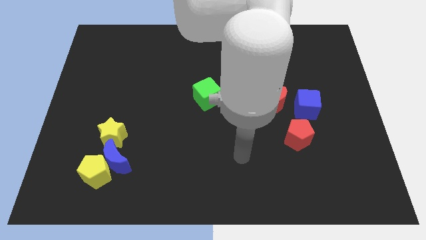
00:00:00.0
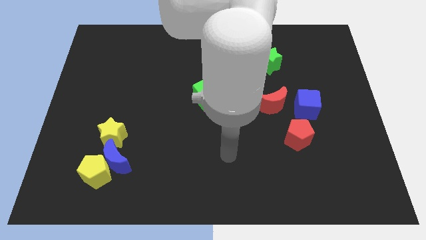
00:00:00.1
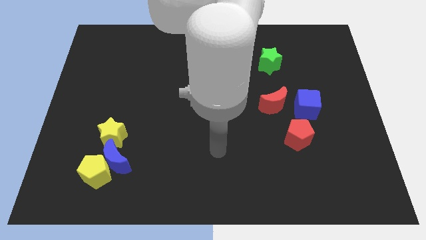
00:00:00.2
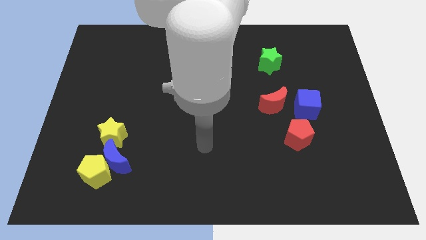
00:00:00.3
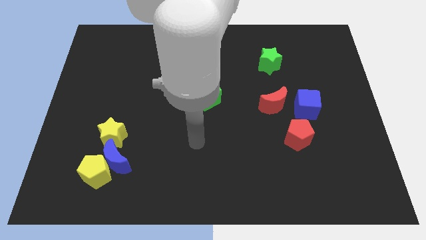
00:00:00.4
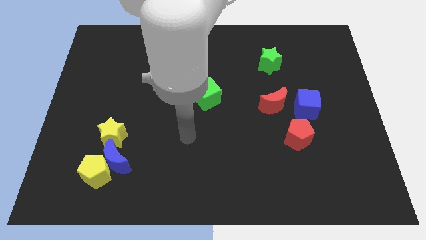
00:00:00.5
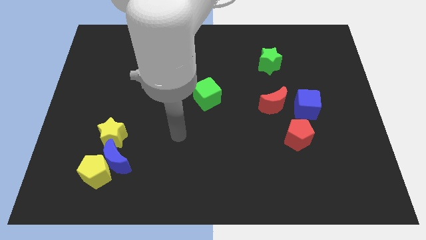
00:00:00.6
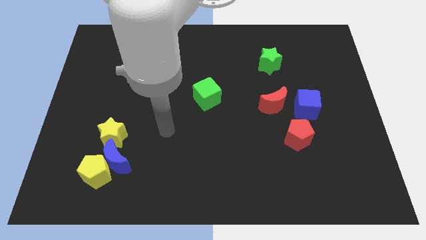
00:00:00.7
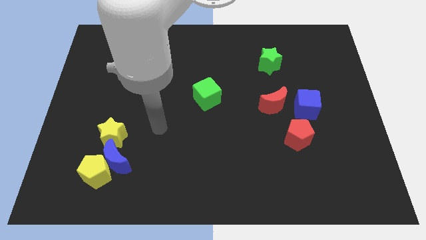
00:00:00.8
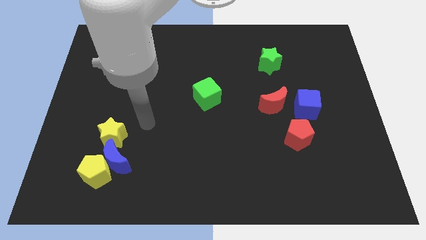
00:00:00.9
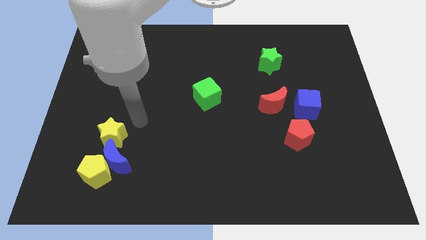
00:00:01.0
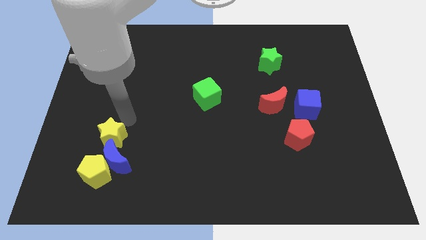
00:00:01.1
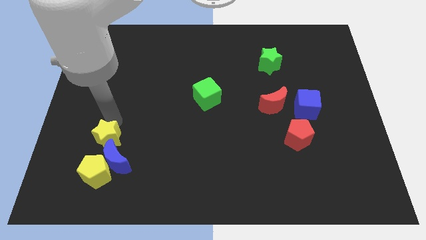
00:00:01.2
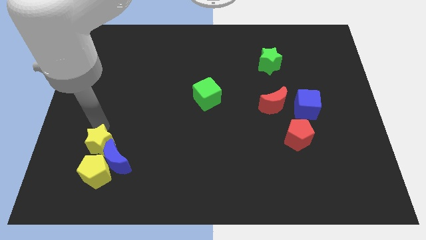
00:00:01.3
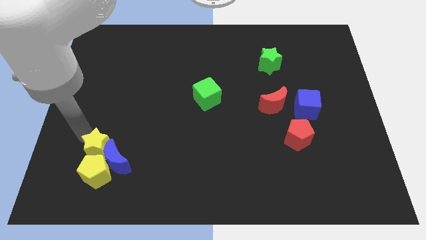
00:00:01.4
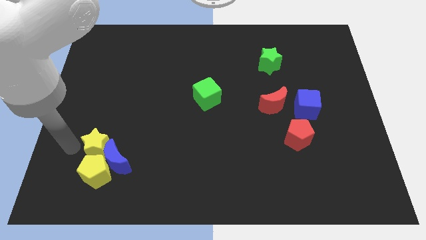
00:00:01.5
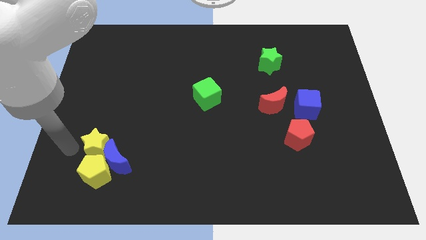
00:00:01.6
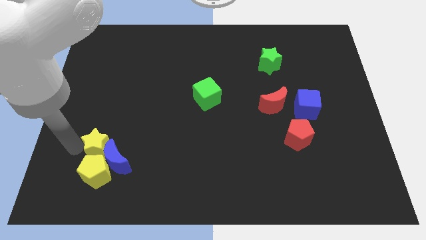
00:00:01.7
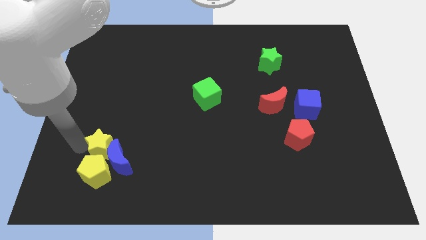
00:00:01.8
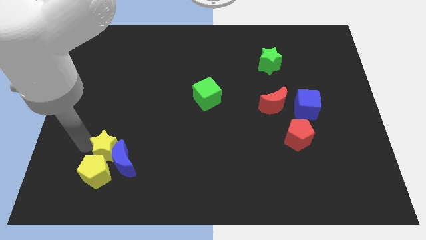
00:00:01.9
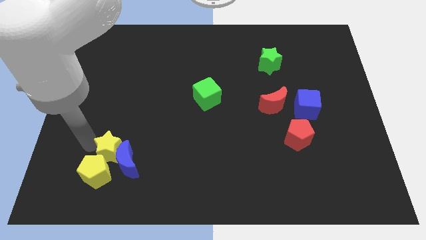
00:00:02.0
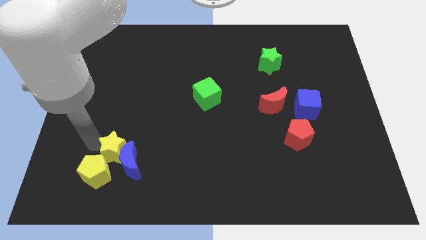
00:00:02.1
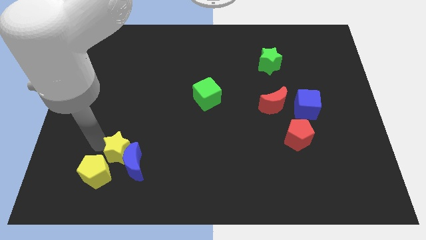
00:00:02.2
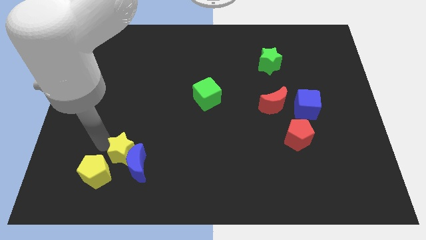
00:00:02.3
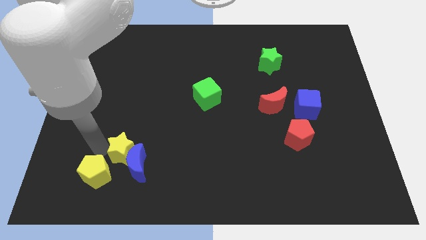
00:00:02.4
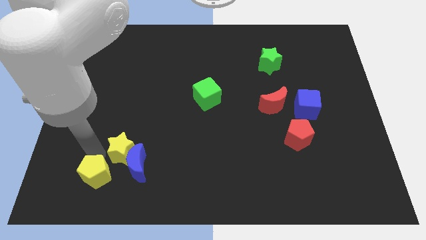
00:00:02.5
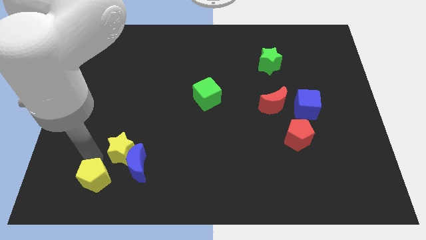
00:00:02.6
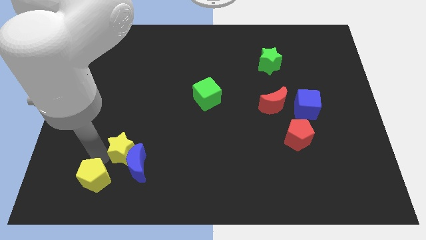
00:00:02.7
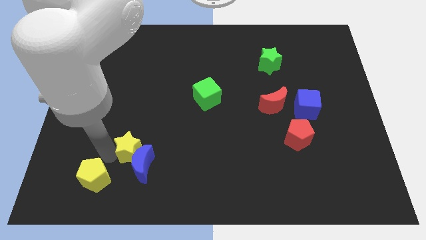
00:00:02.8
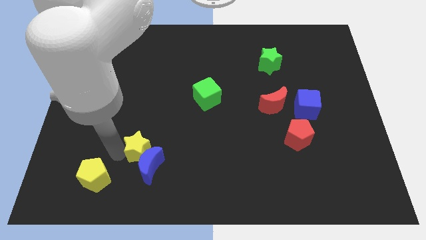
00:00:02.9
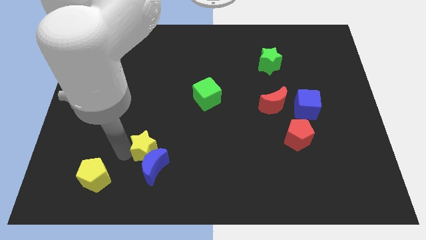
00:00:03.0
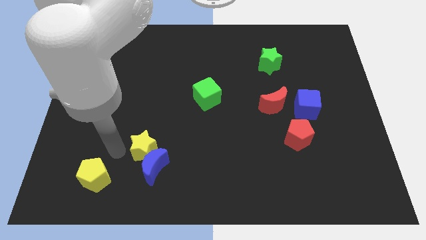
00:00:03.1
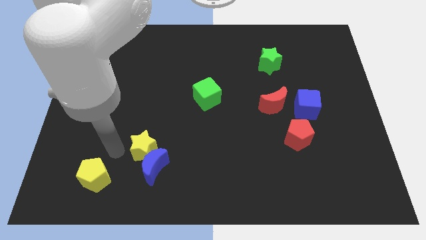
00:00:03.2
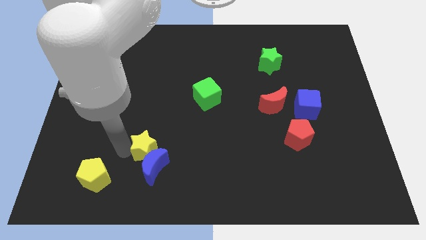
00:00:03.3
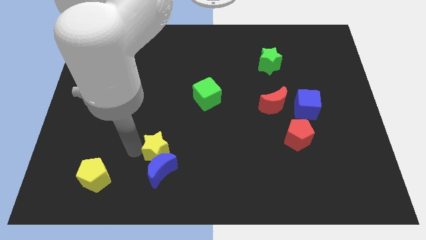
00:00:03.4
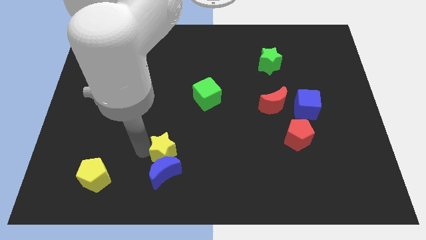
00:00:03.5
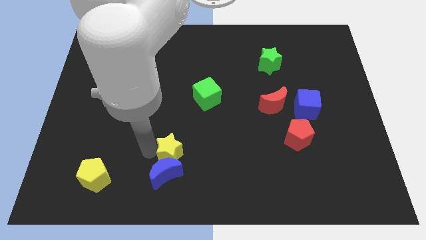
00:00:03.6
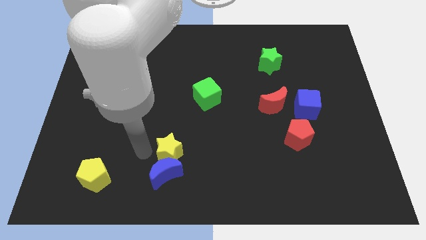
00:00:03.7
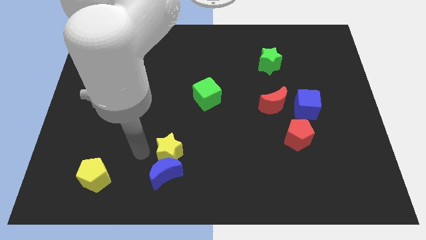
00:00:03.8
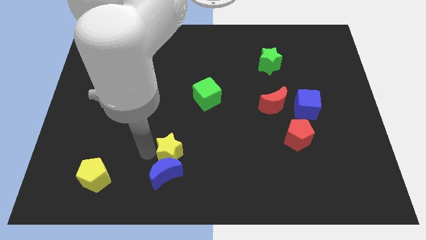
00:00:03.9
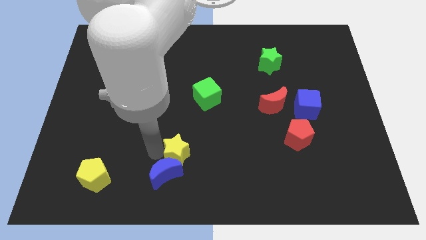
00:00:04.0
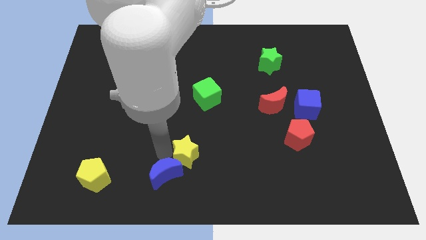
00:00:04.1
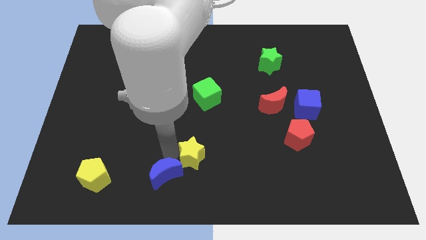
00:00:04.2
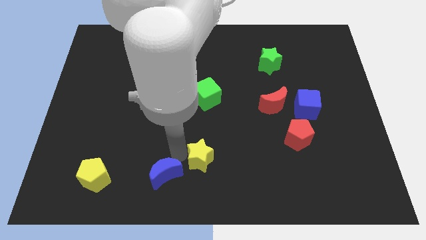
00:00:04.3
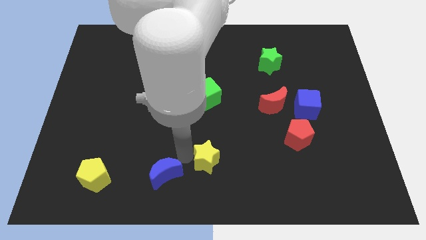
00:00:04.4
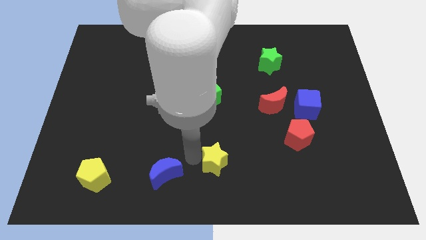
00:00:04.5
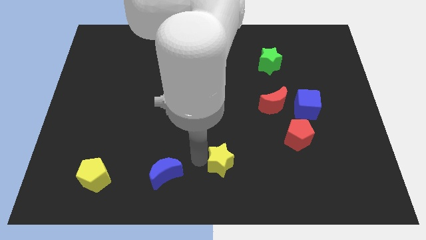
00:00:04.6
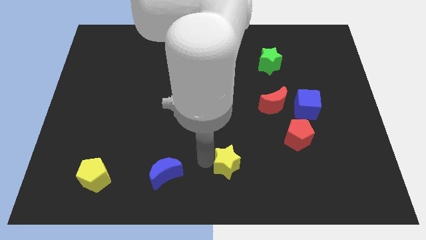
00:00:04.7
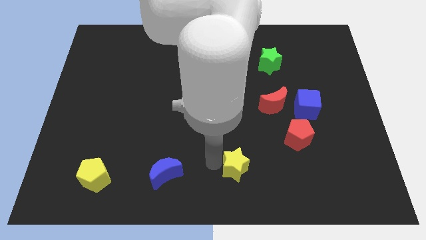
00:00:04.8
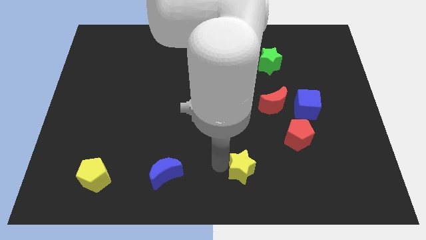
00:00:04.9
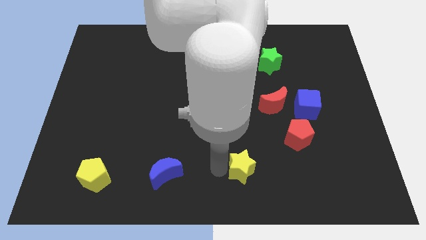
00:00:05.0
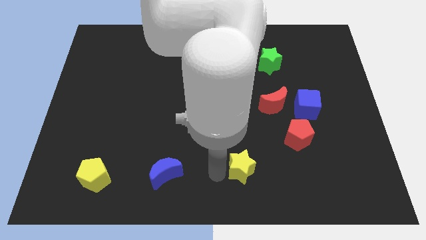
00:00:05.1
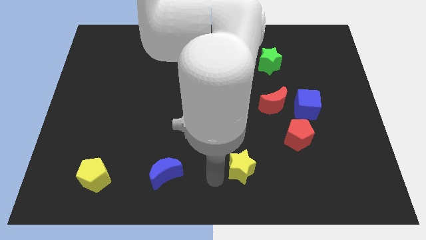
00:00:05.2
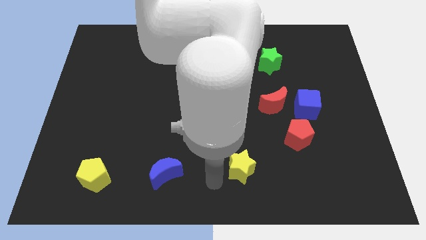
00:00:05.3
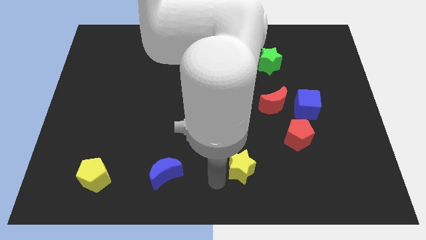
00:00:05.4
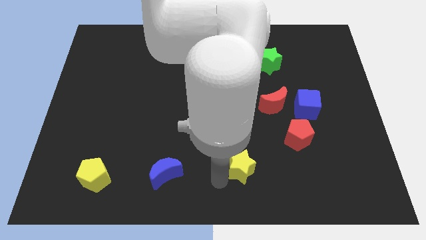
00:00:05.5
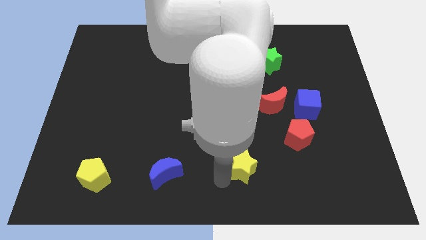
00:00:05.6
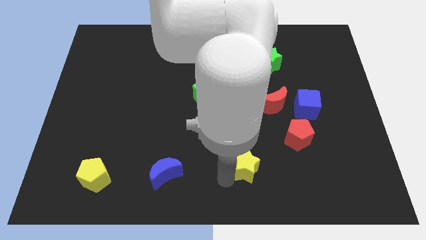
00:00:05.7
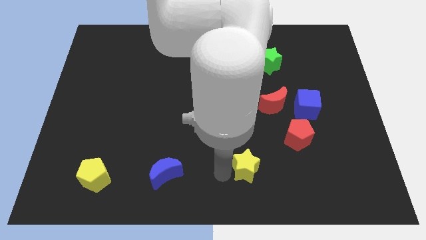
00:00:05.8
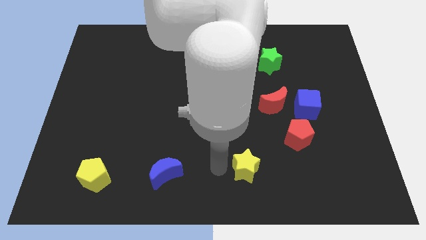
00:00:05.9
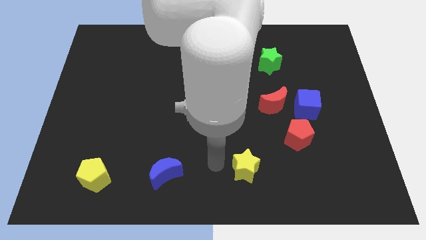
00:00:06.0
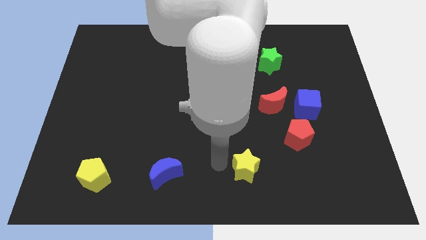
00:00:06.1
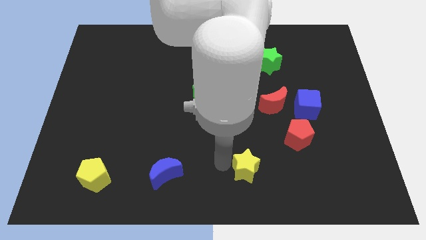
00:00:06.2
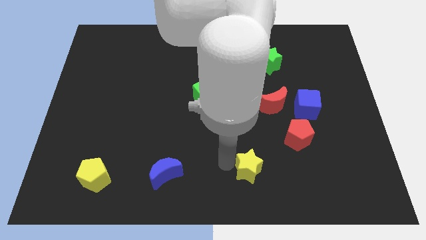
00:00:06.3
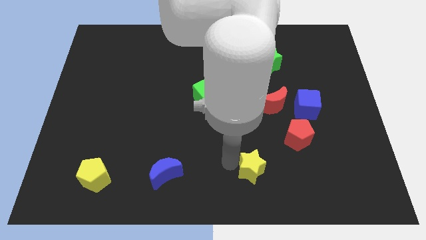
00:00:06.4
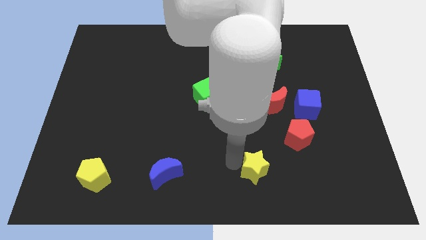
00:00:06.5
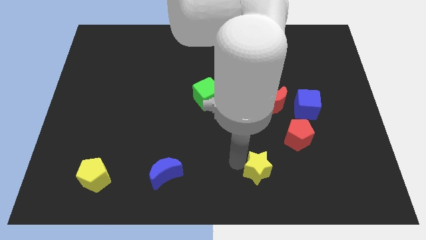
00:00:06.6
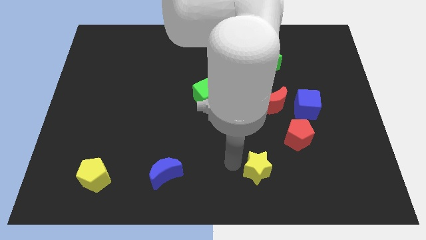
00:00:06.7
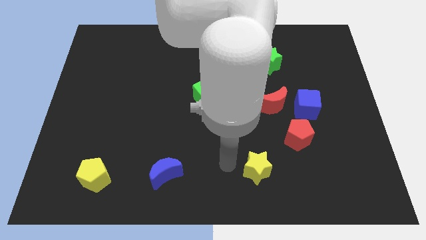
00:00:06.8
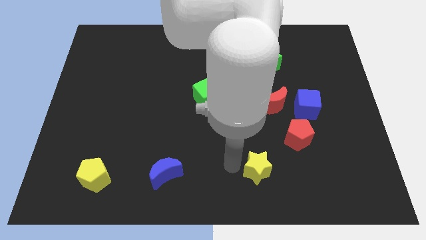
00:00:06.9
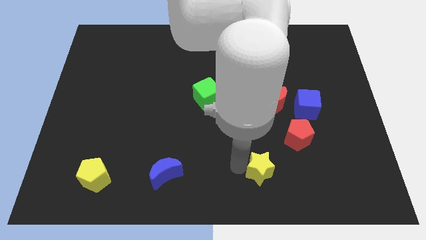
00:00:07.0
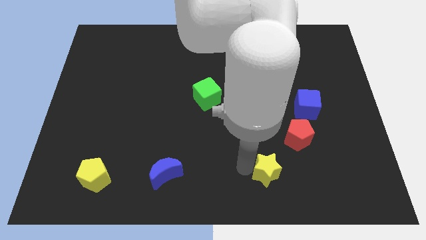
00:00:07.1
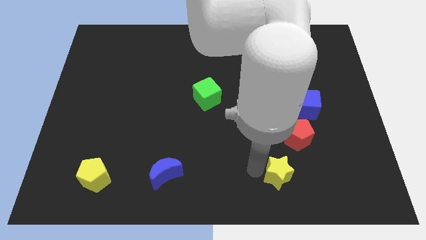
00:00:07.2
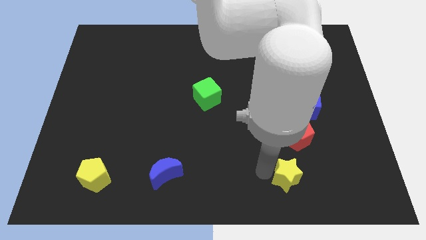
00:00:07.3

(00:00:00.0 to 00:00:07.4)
put the yellow star to the bottom side of the red pentagon

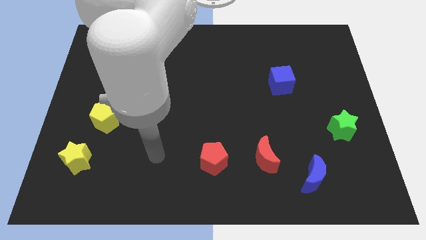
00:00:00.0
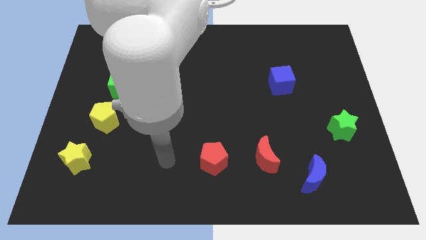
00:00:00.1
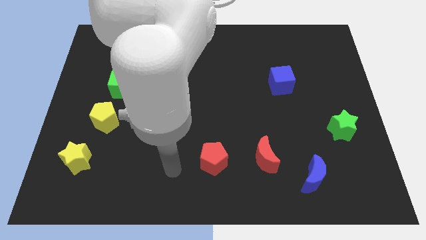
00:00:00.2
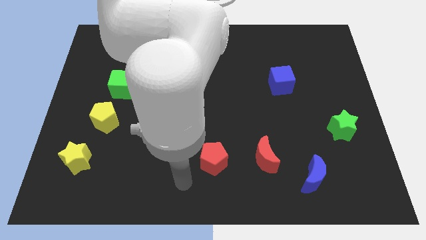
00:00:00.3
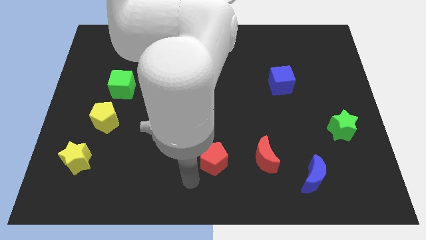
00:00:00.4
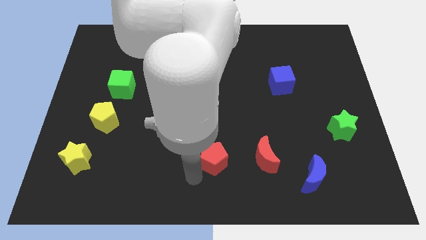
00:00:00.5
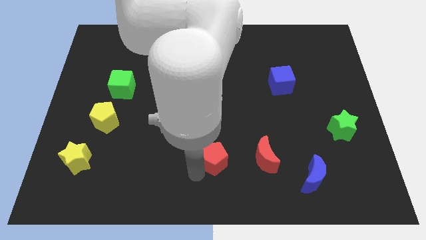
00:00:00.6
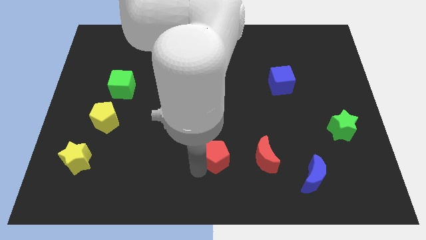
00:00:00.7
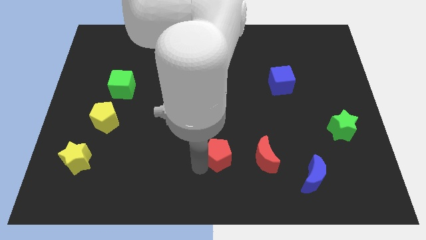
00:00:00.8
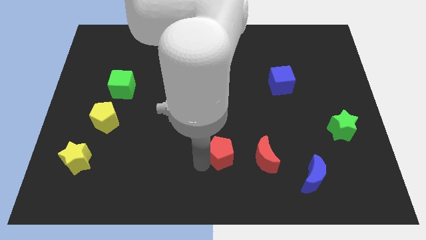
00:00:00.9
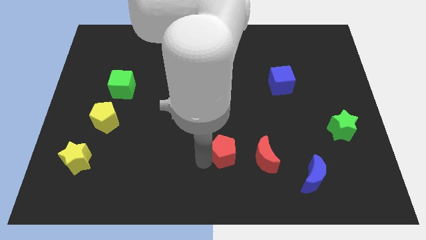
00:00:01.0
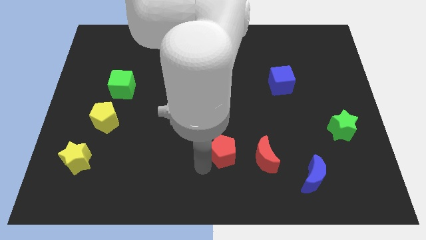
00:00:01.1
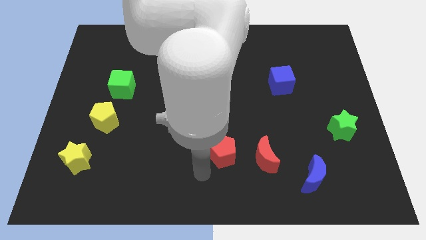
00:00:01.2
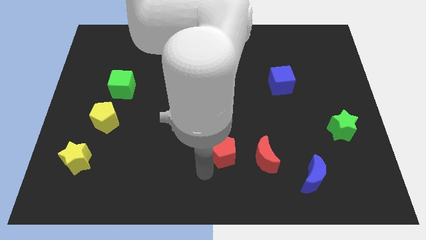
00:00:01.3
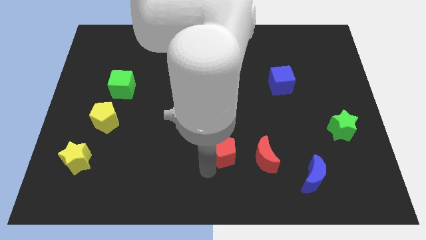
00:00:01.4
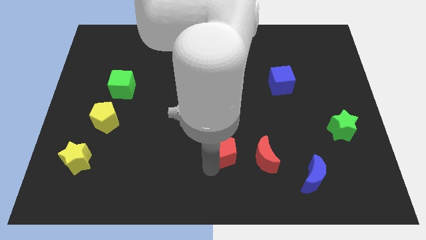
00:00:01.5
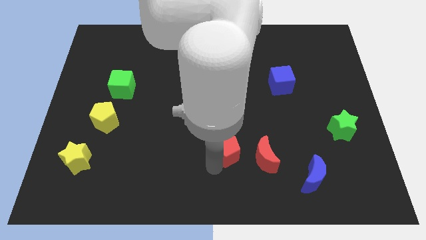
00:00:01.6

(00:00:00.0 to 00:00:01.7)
push the red pentagon to the top left side of the red moon
